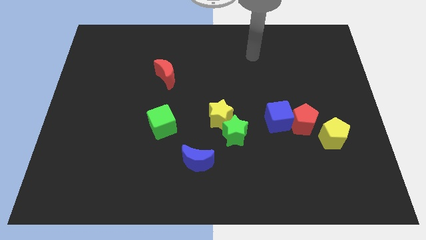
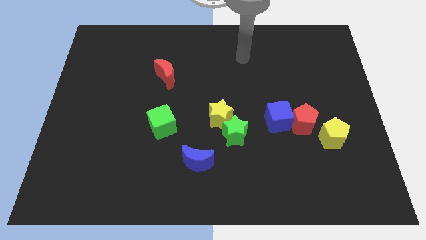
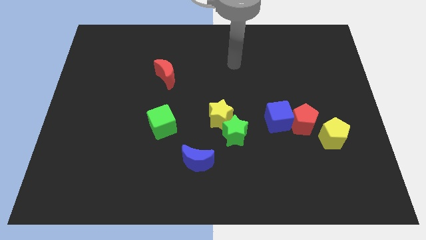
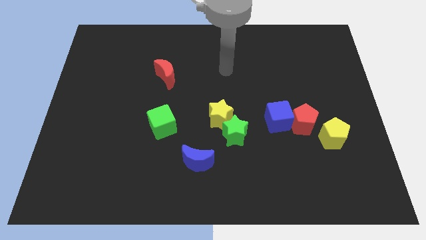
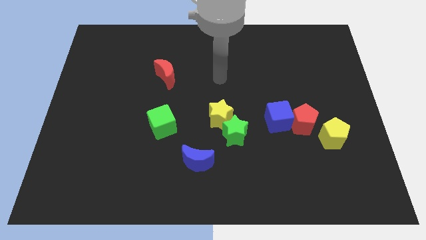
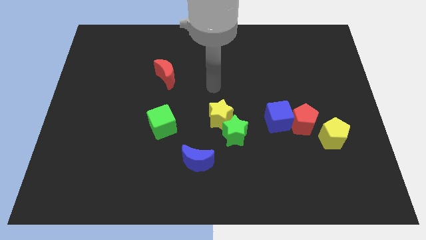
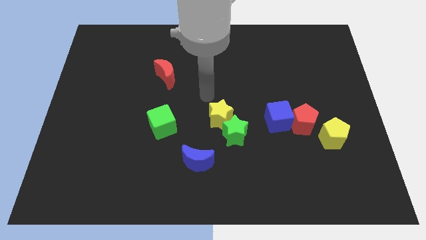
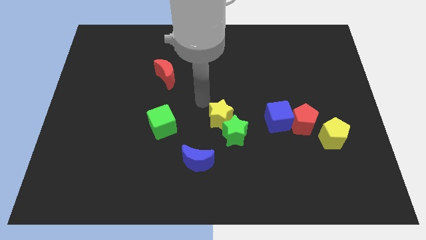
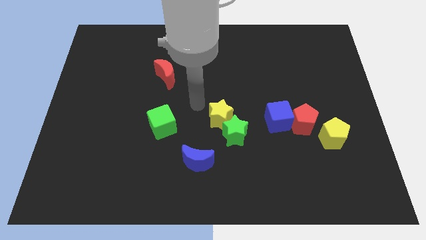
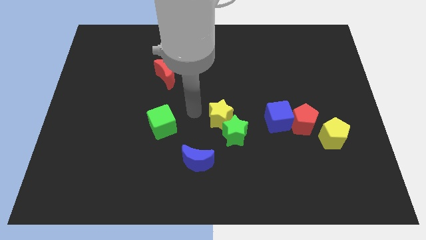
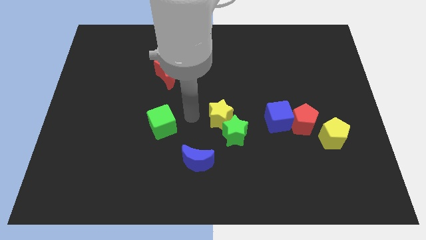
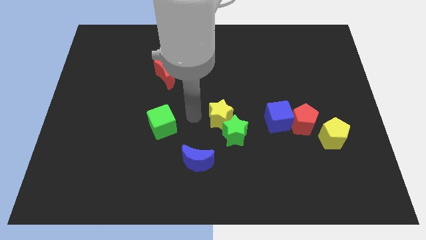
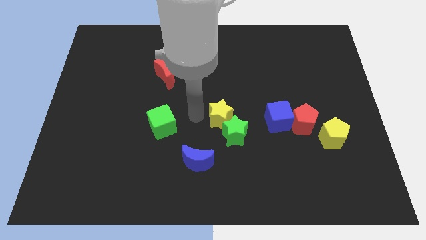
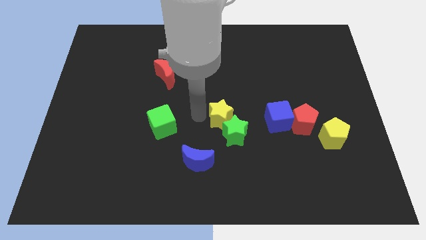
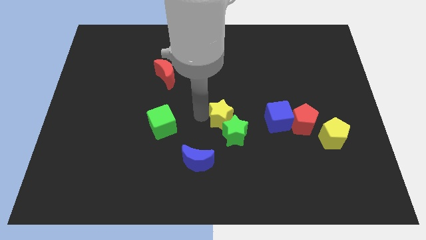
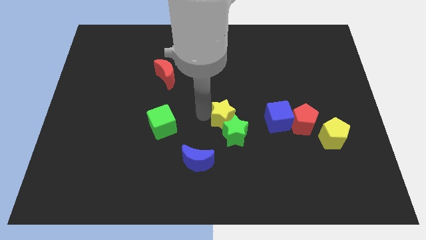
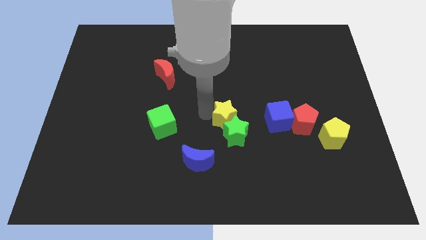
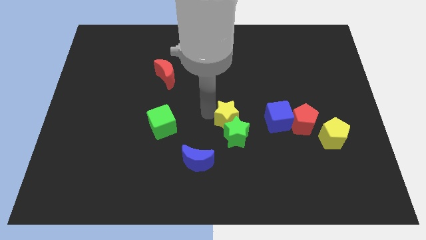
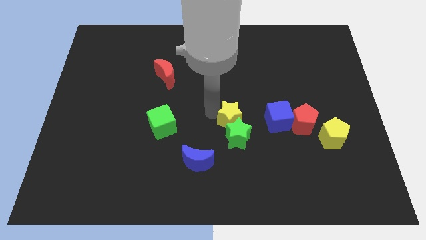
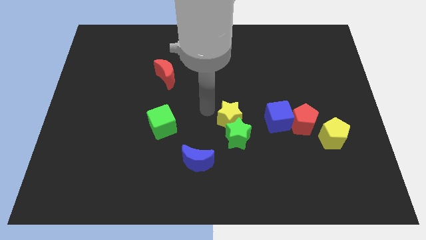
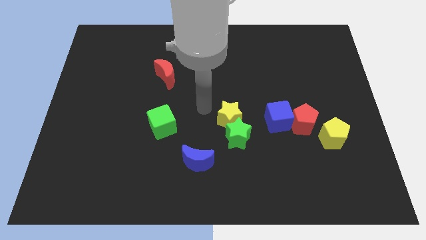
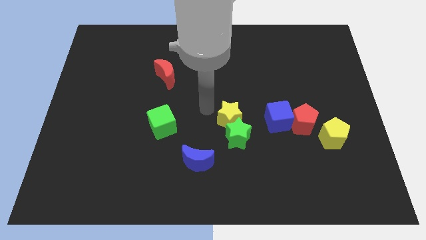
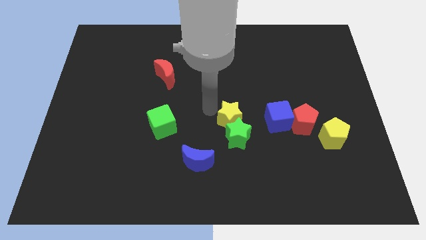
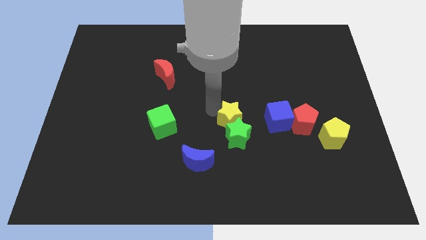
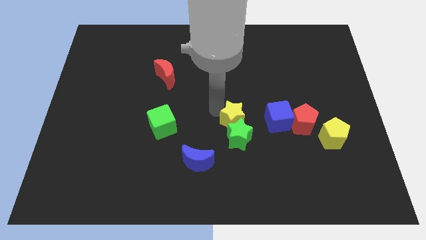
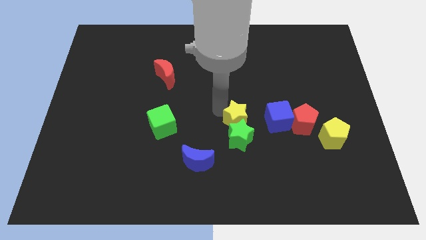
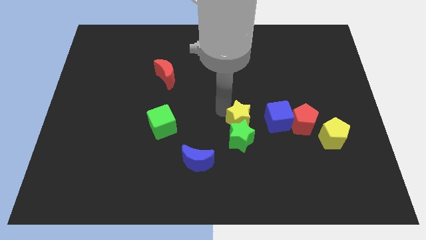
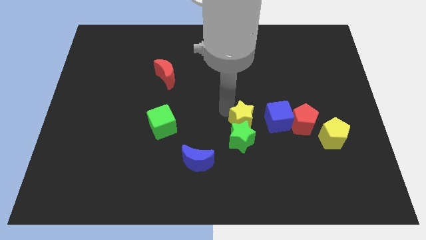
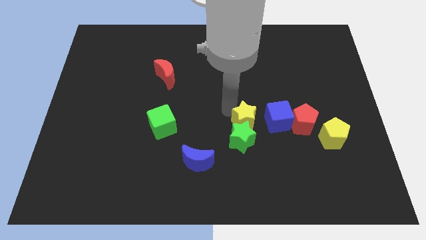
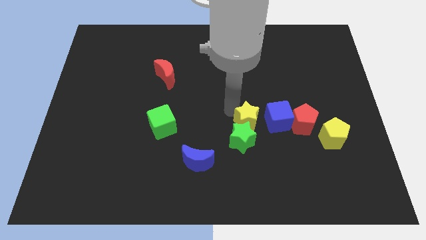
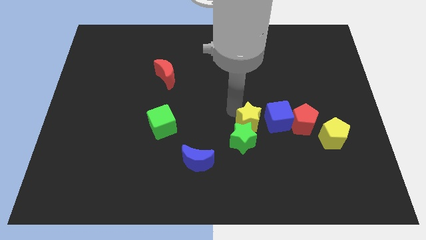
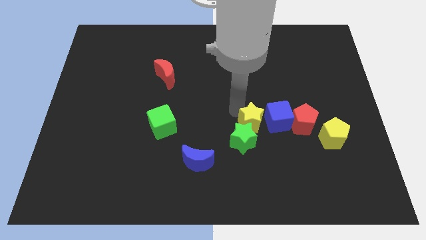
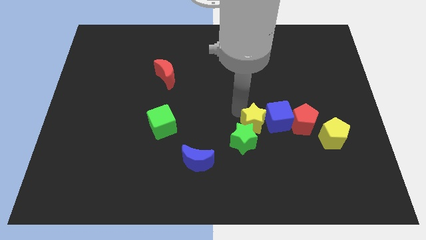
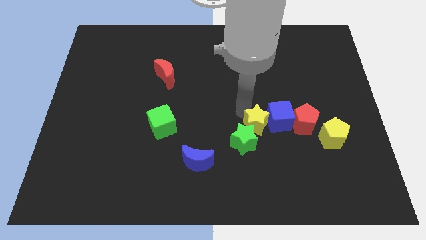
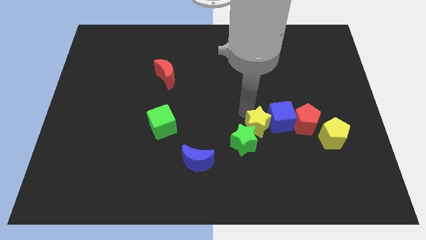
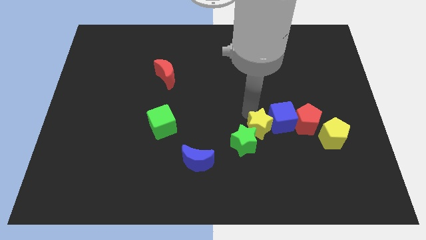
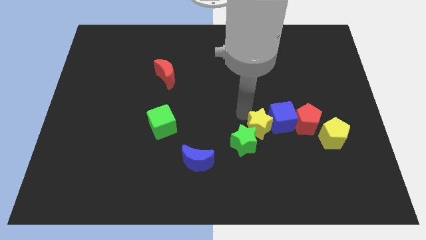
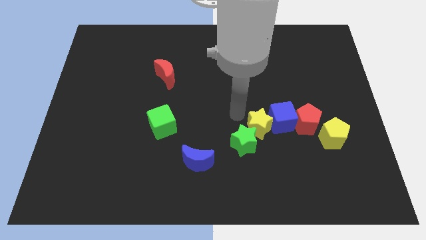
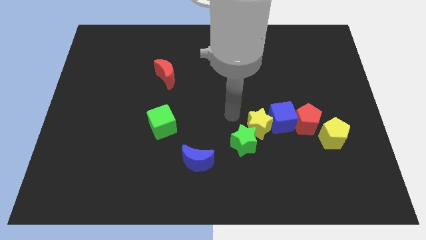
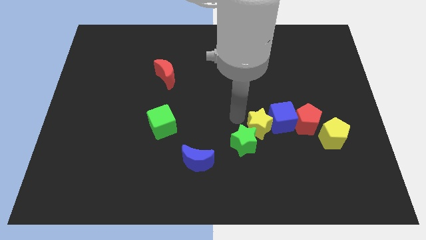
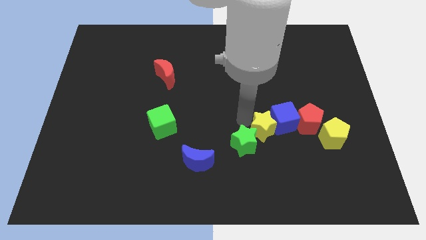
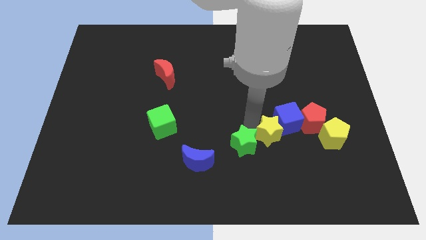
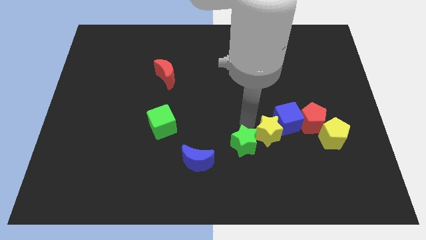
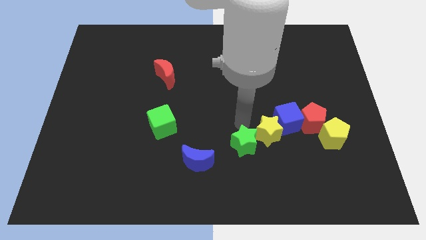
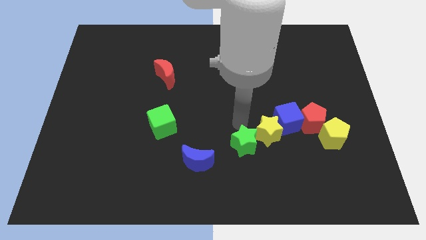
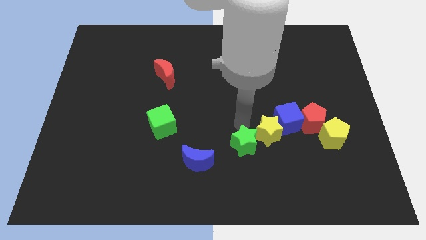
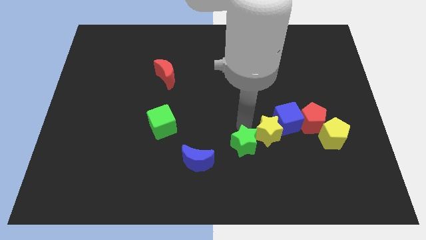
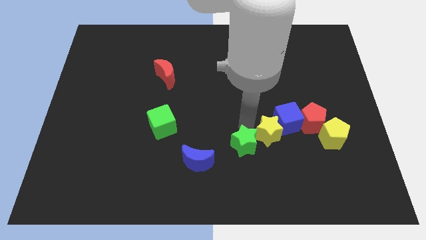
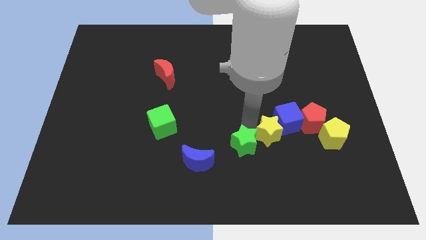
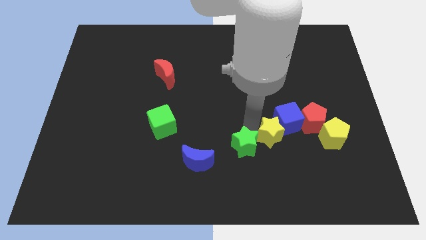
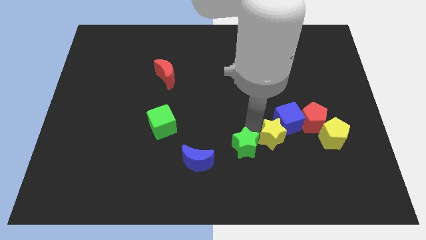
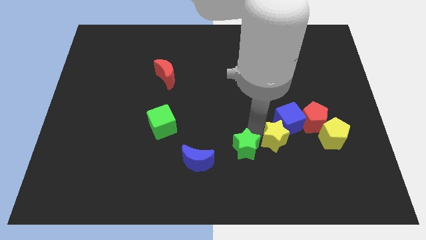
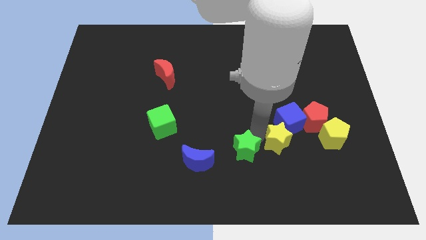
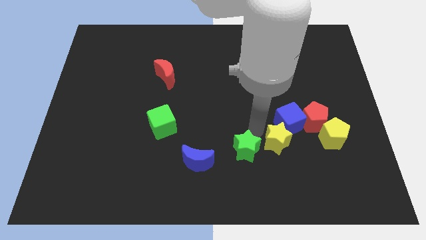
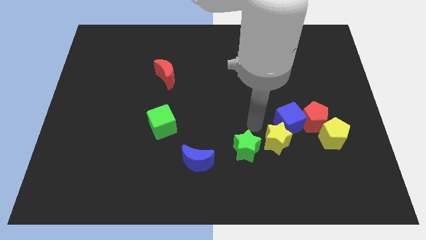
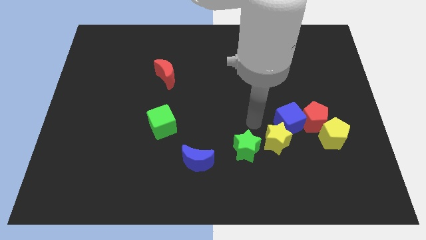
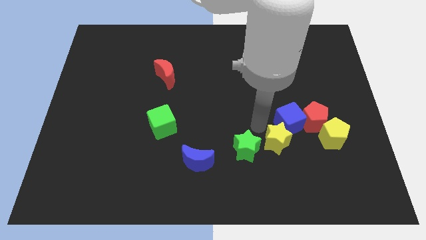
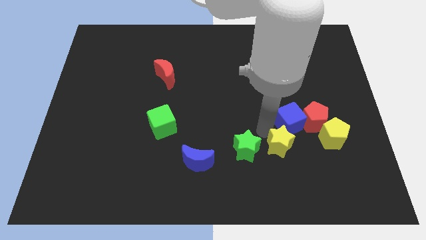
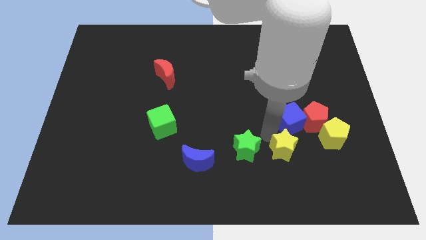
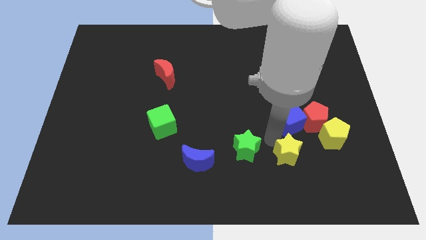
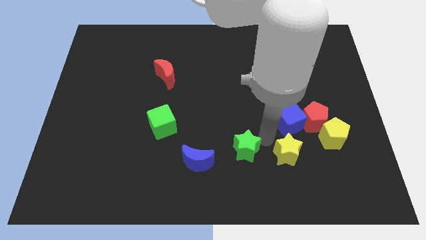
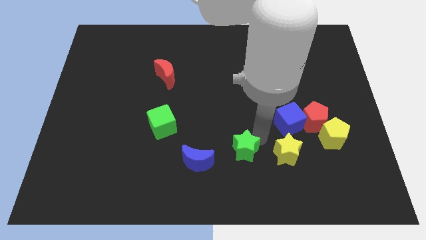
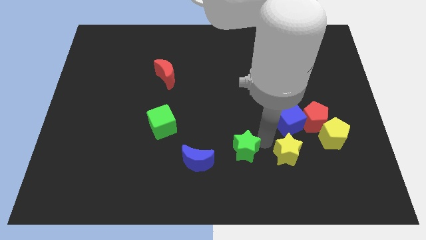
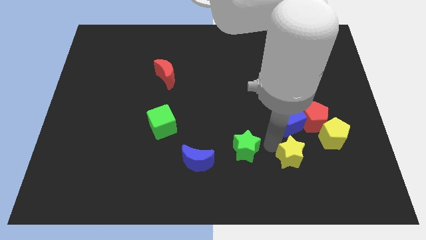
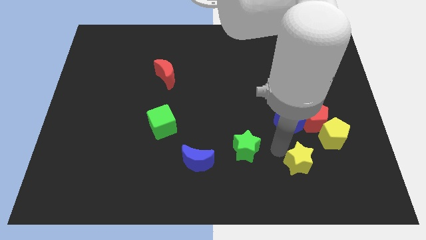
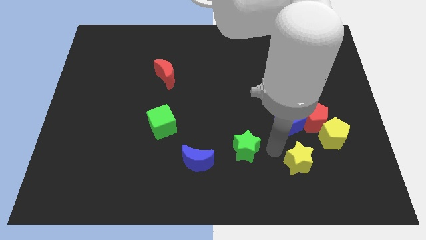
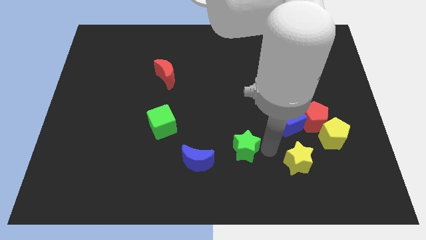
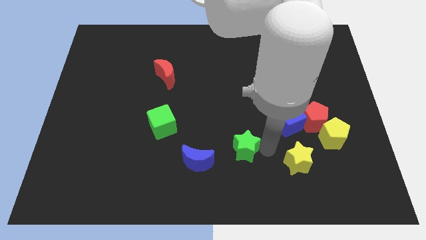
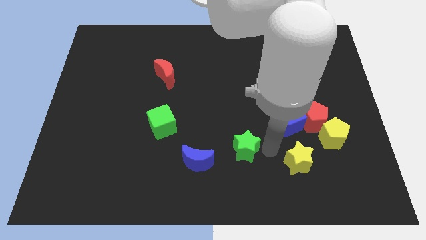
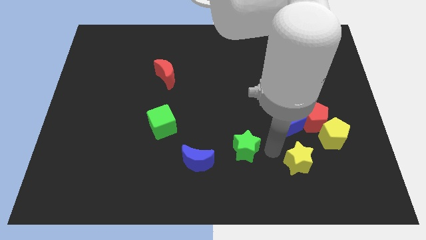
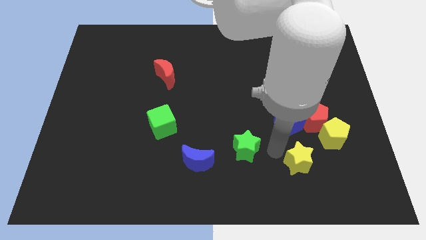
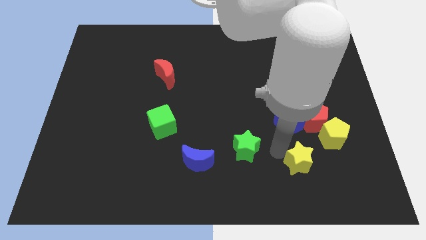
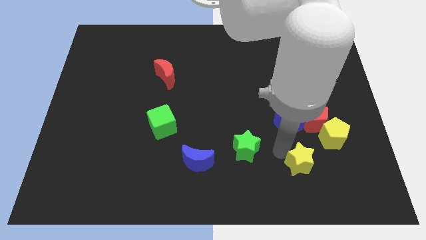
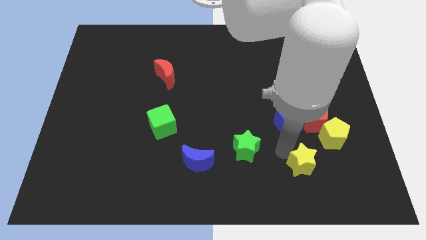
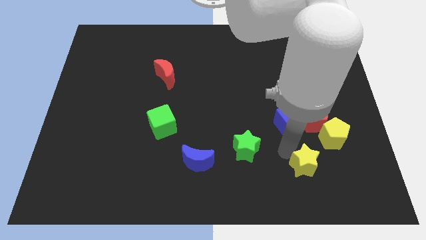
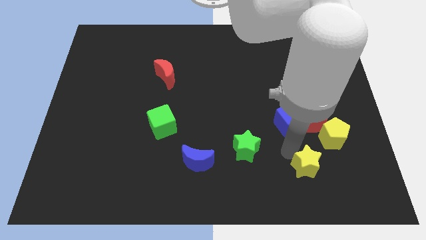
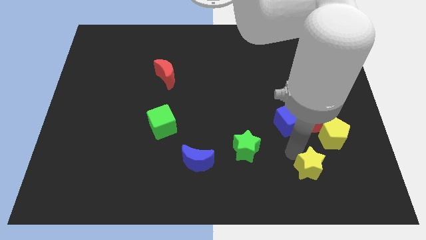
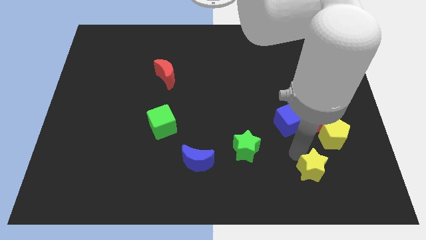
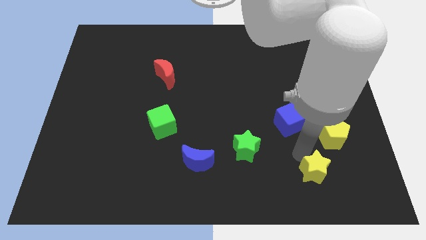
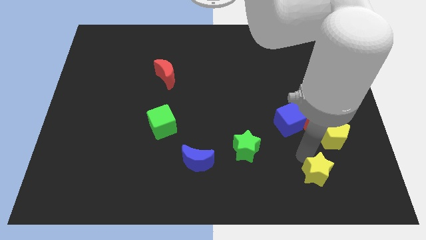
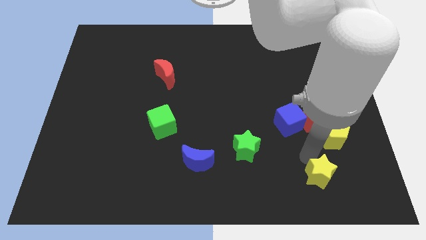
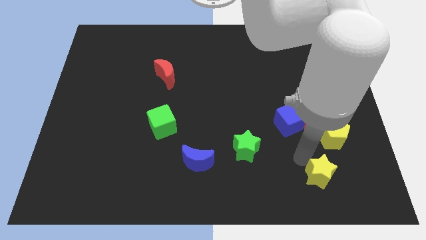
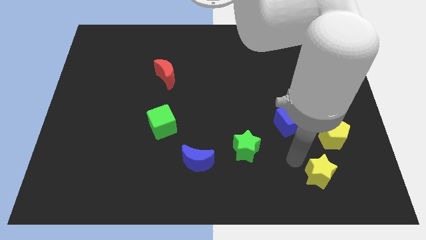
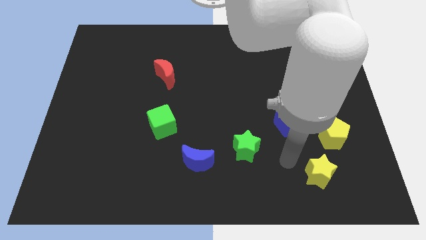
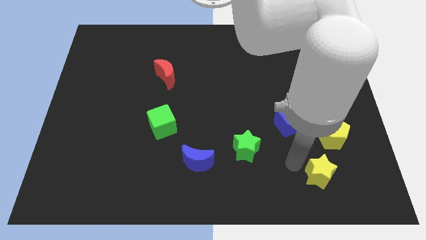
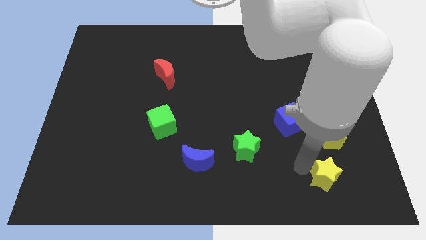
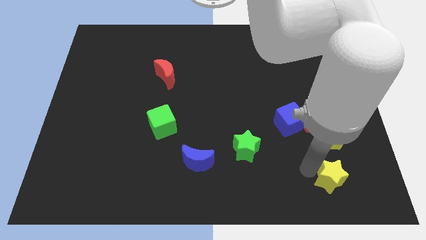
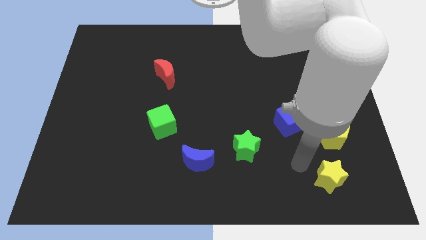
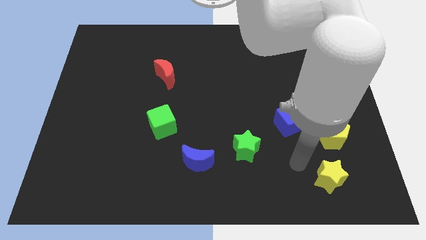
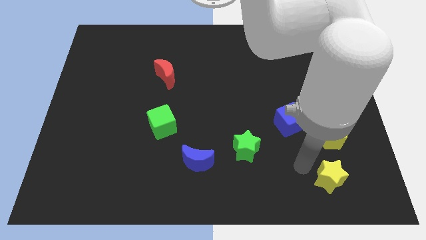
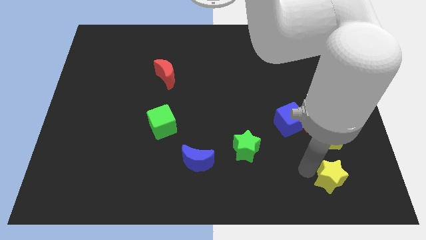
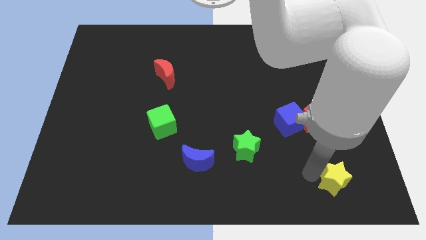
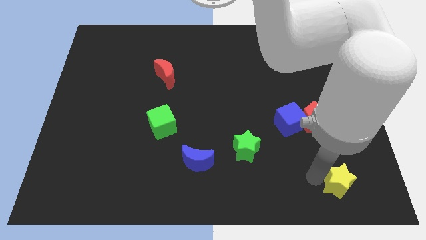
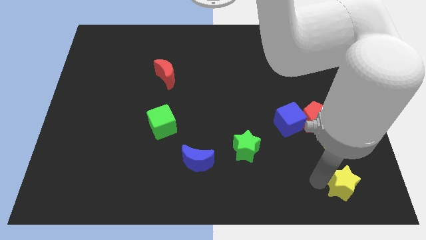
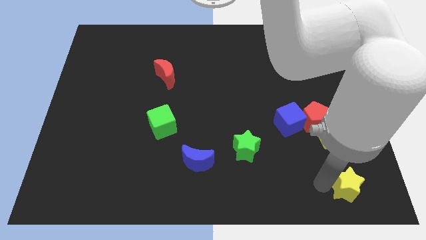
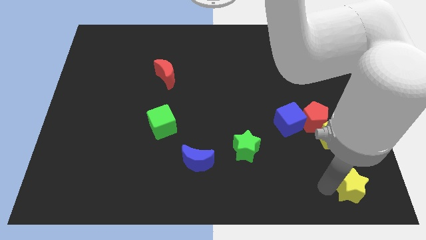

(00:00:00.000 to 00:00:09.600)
move the yellow star to the bottom right corner
